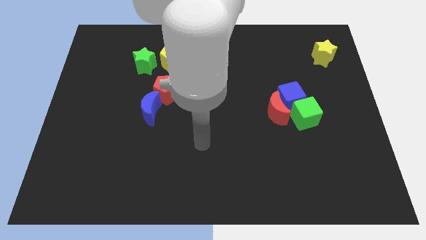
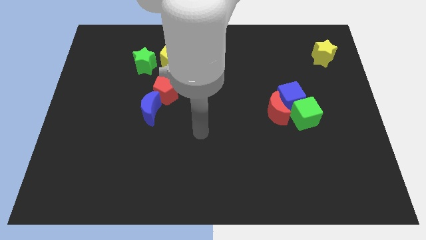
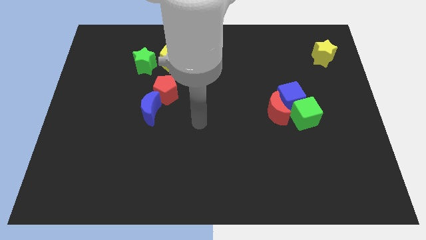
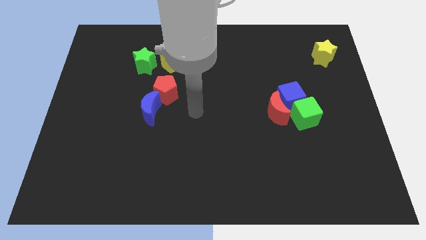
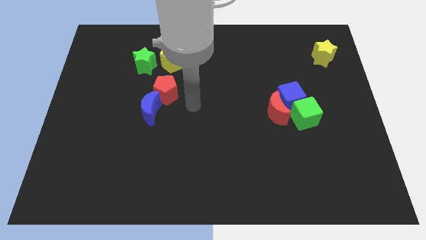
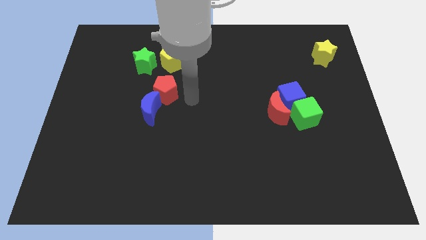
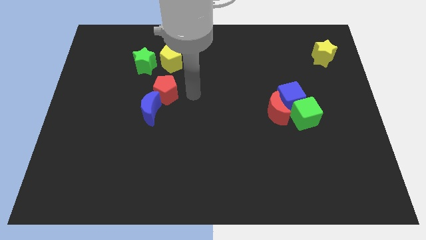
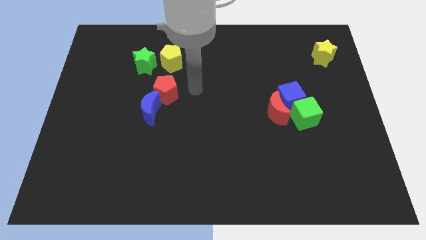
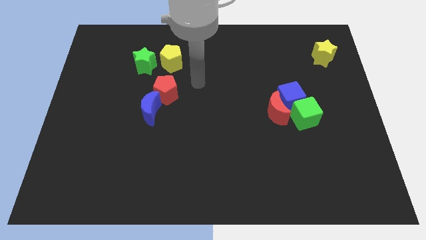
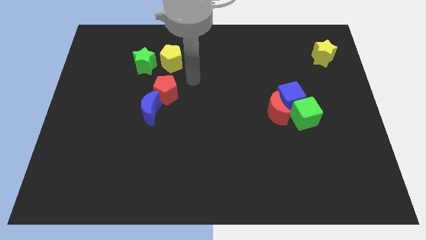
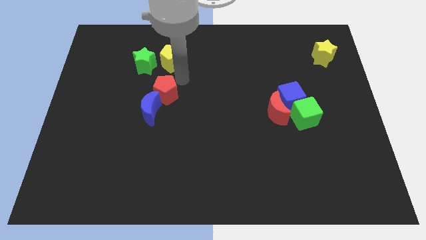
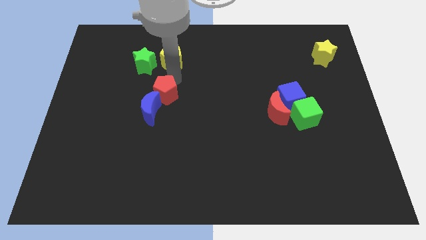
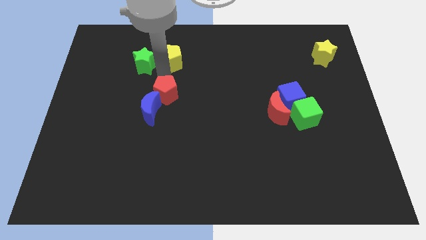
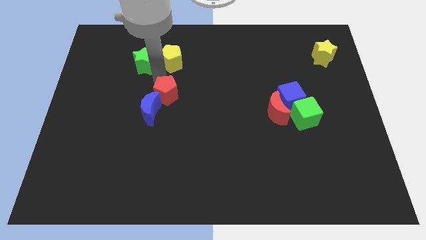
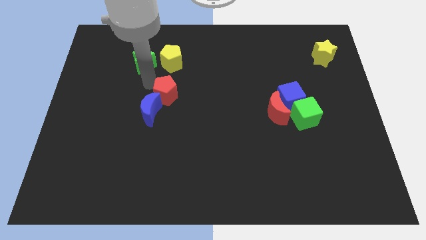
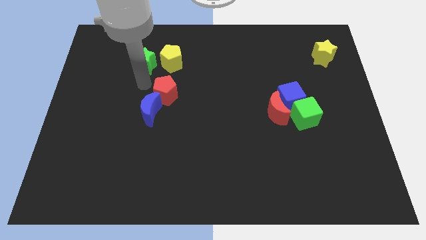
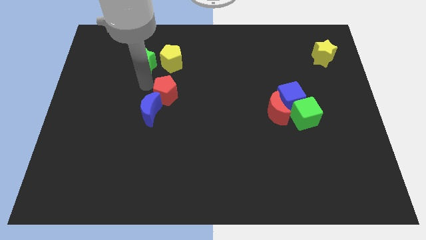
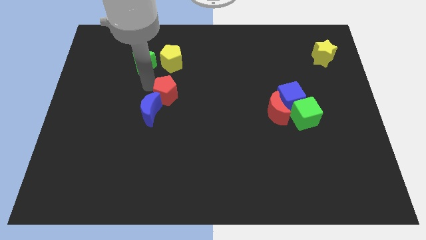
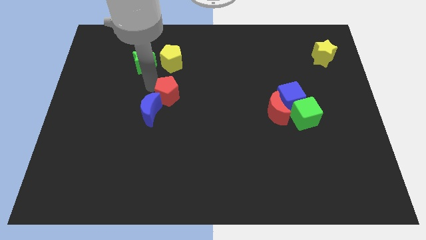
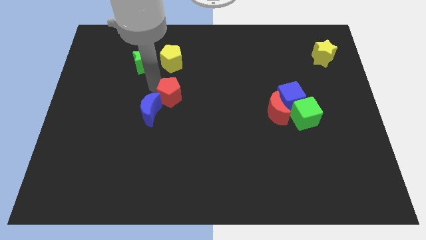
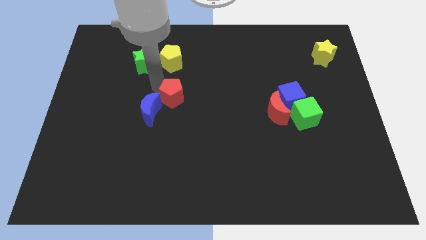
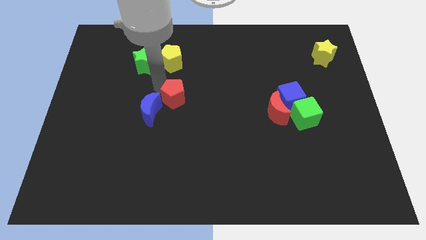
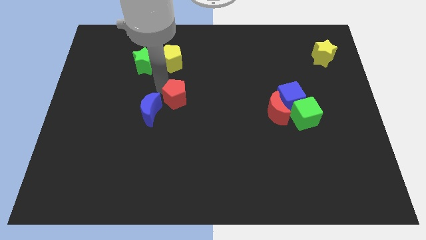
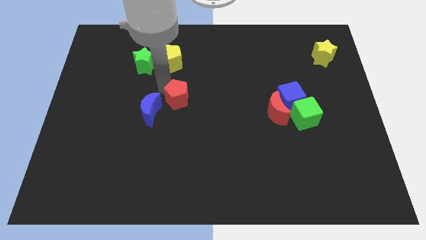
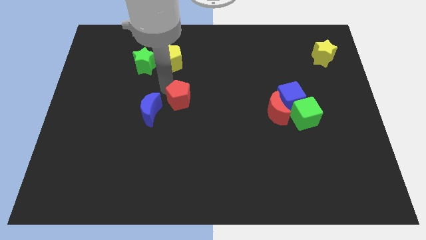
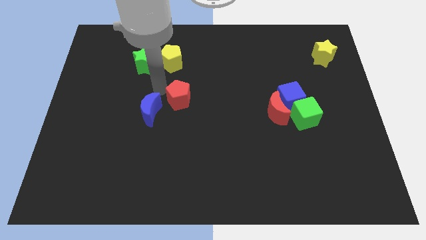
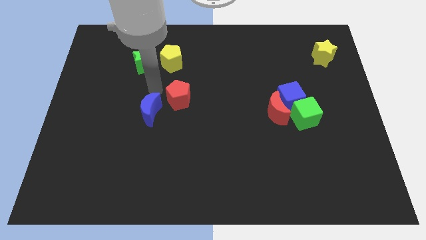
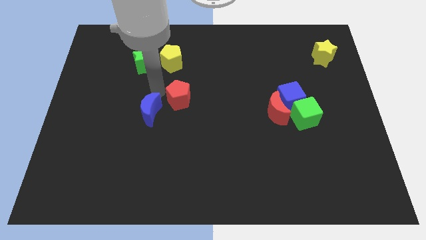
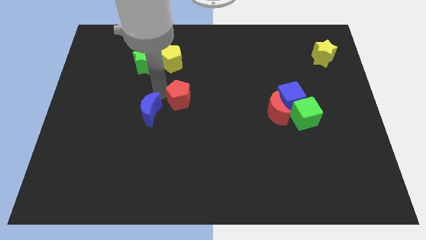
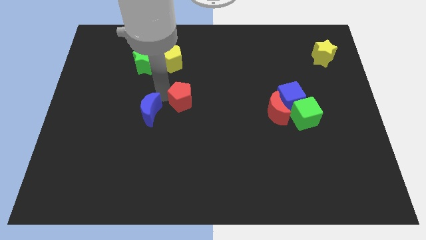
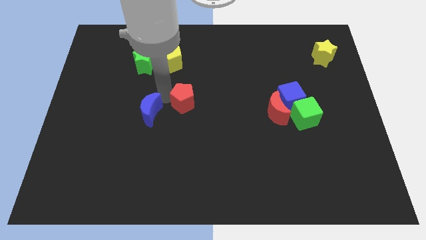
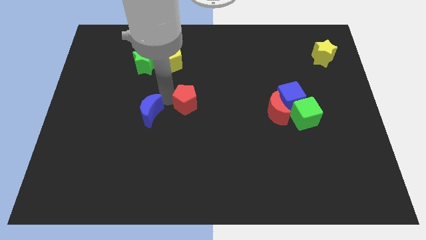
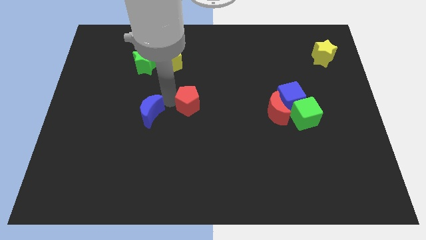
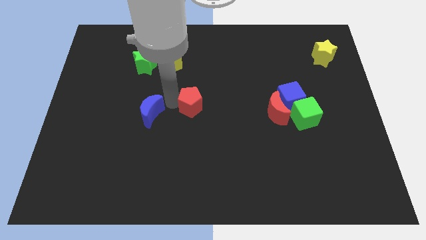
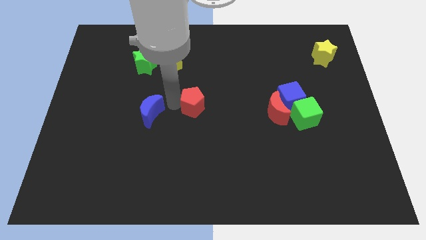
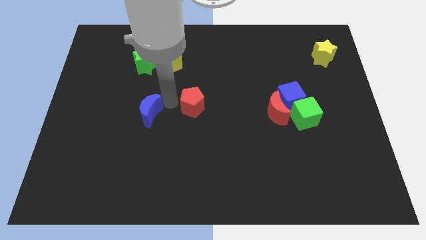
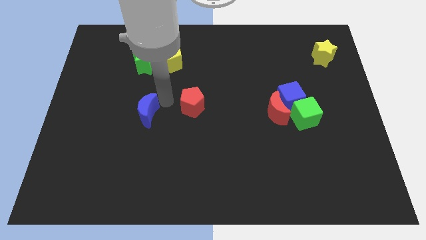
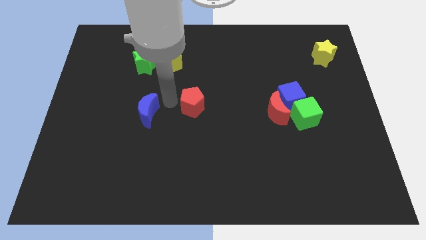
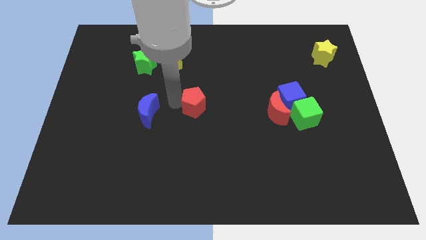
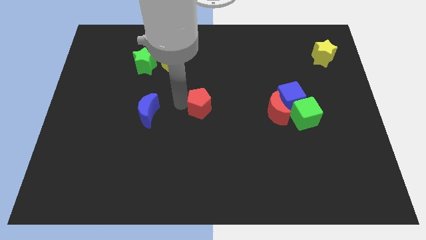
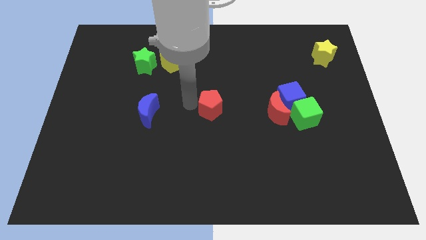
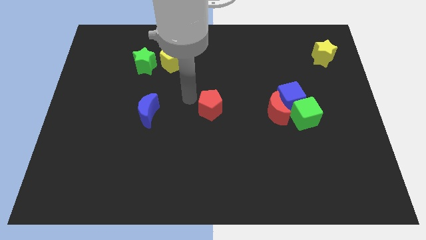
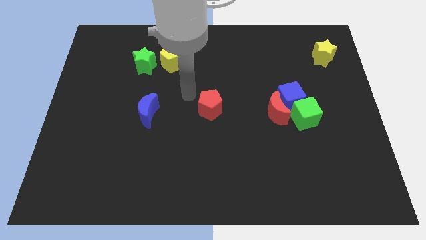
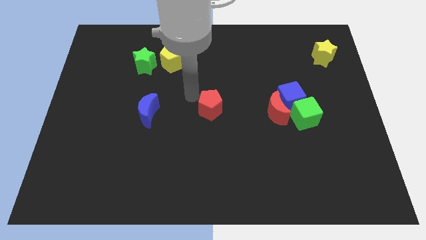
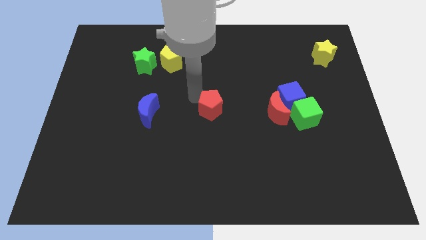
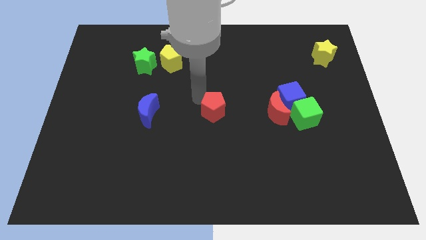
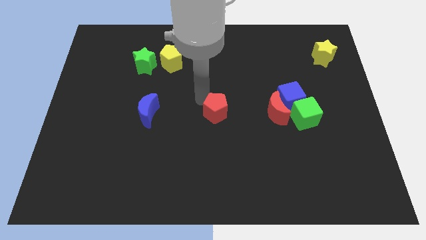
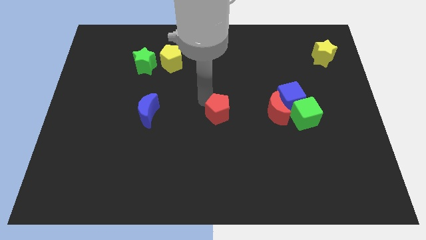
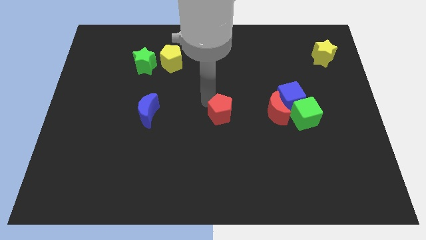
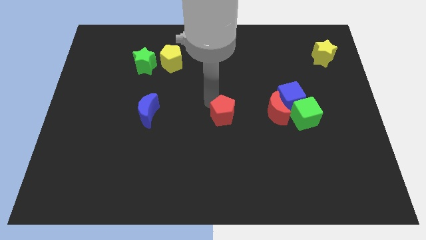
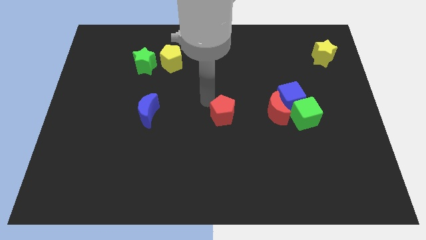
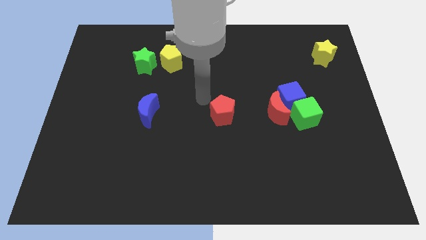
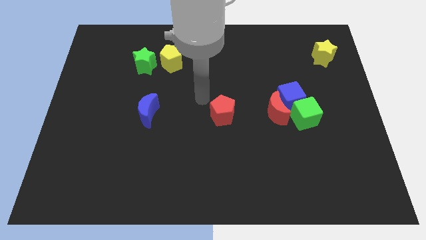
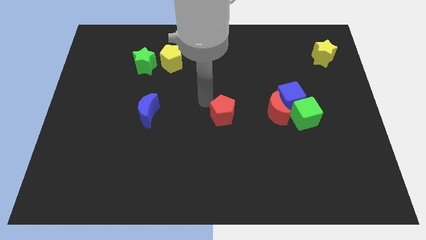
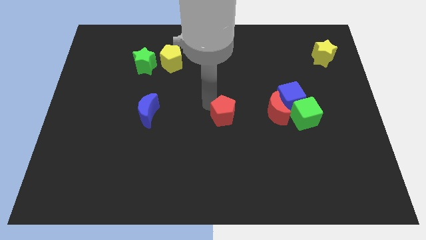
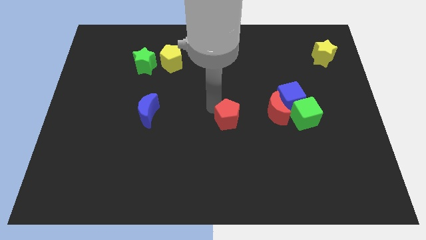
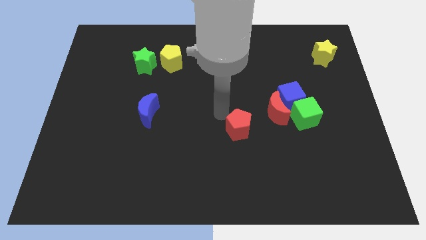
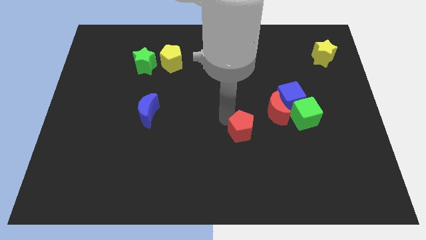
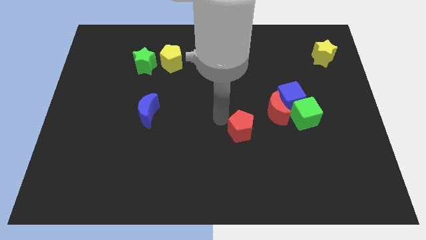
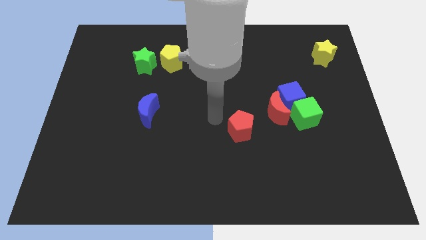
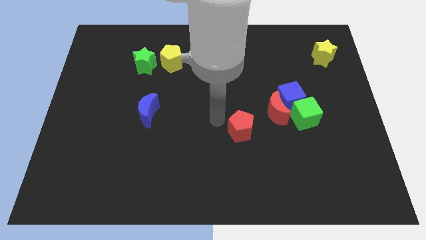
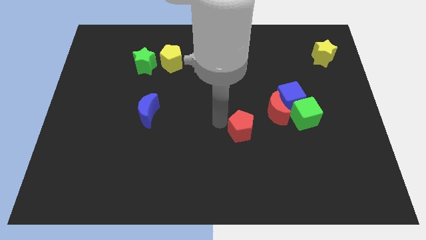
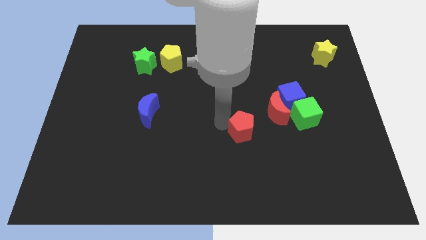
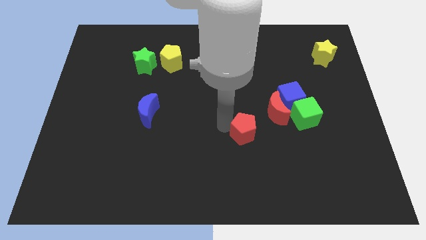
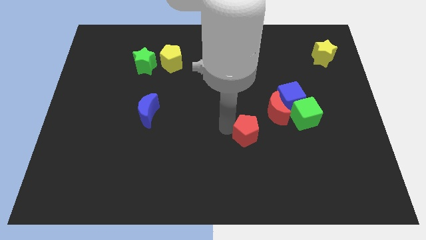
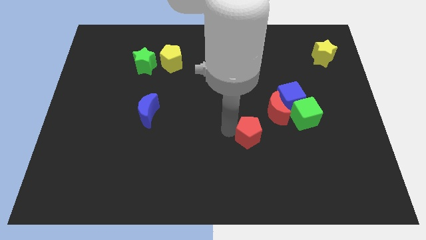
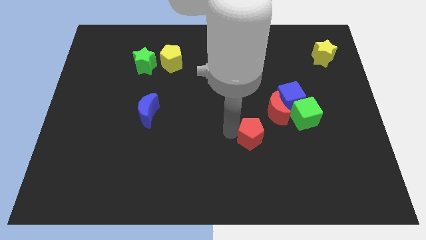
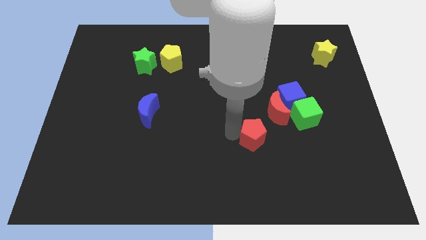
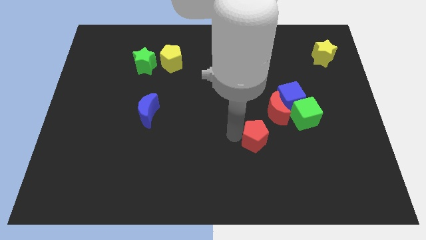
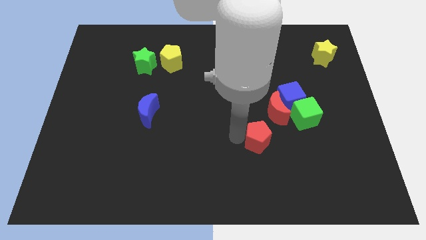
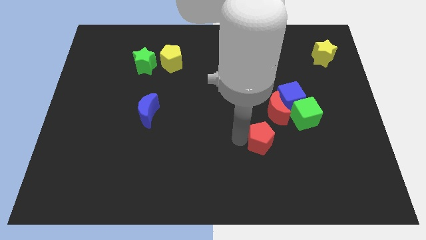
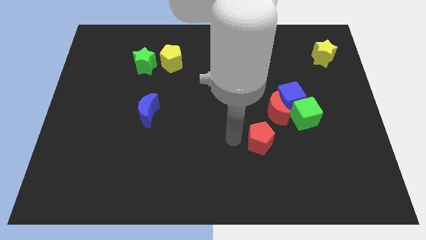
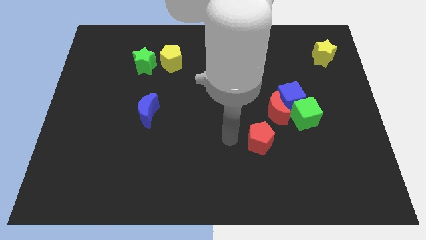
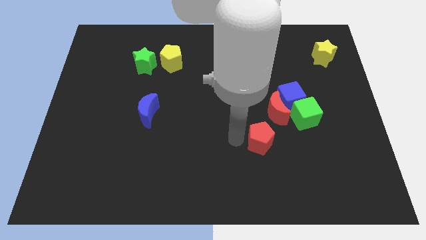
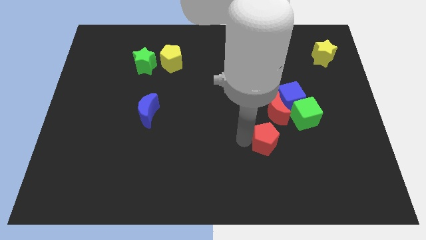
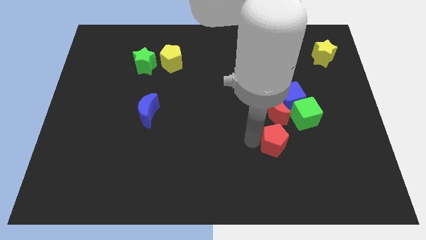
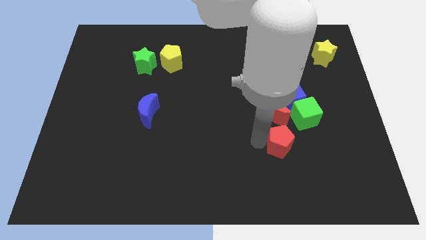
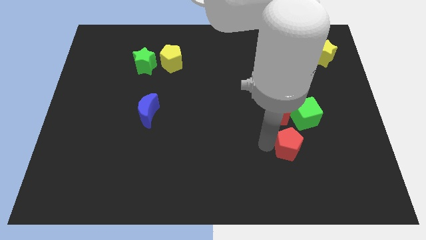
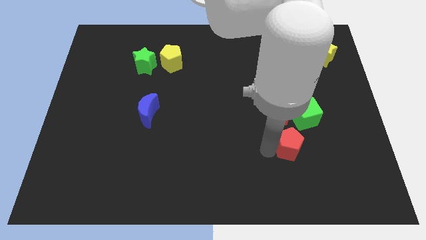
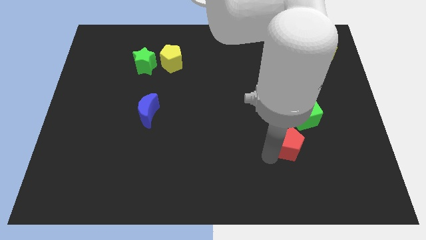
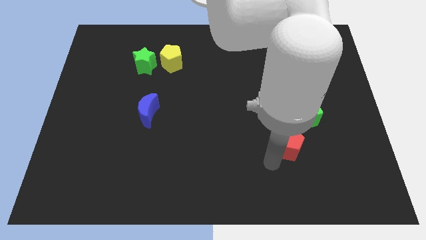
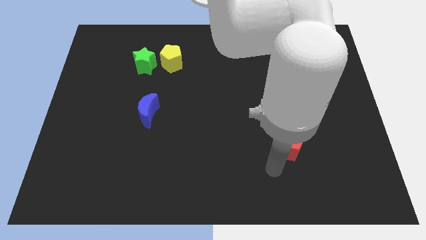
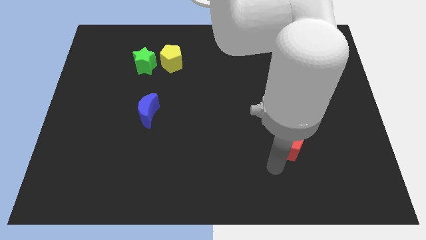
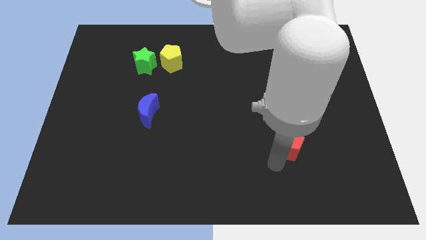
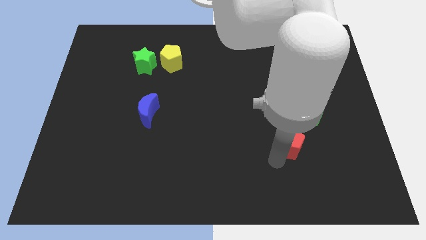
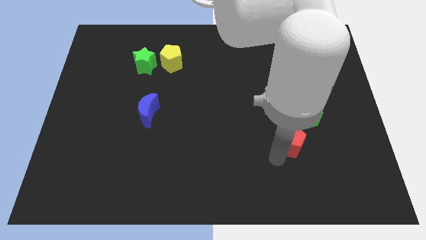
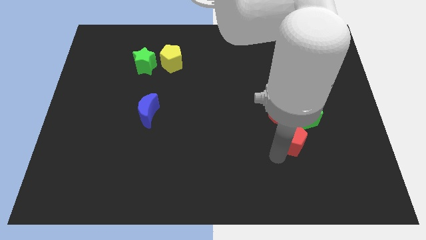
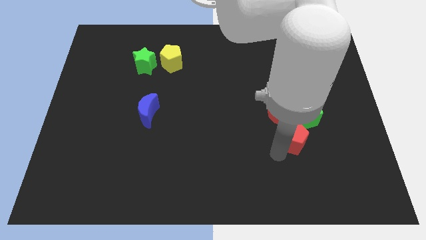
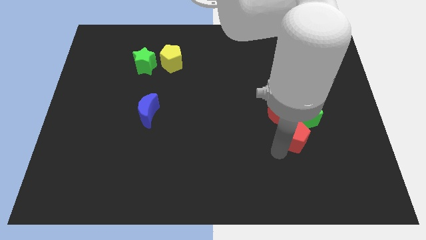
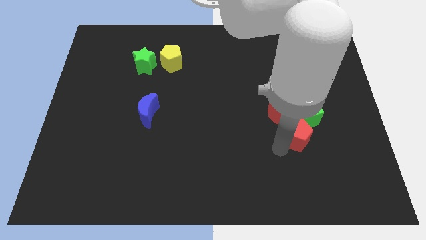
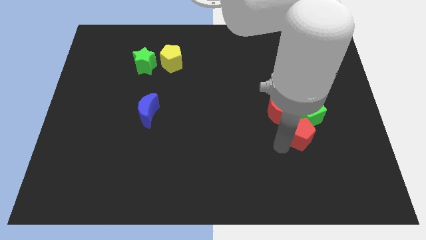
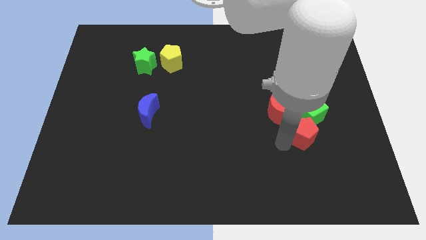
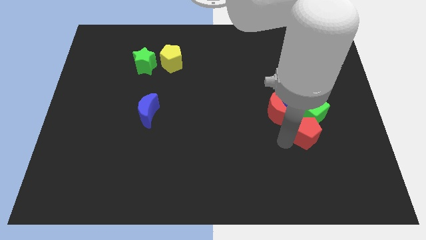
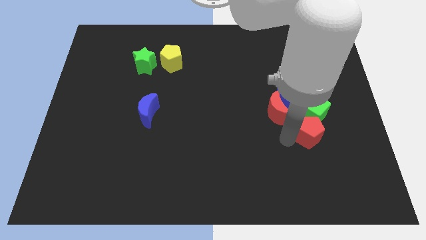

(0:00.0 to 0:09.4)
push the red pentagon next to the green cube
